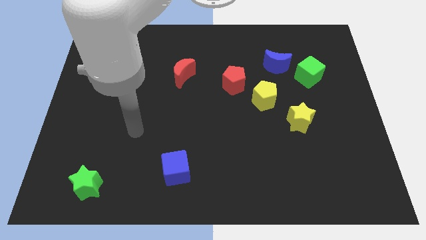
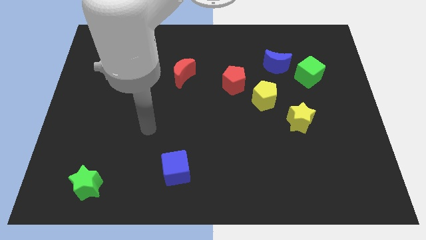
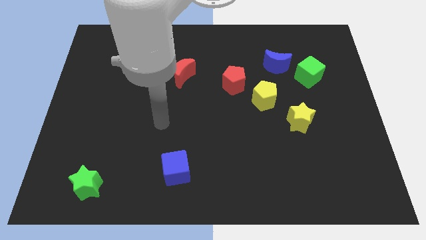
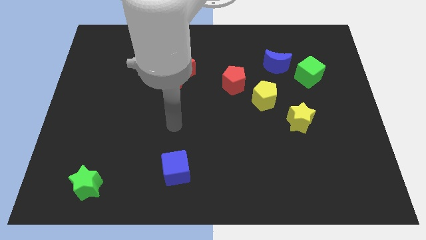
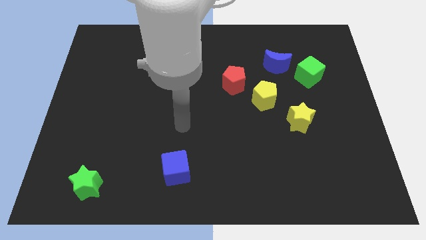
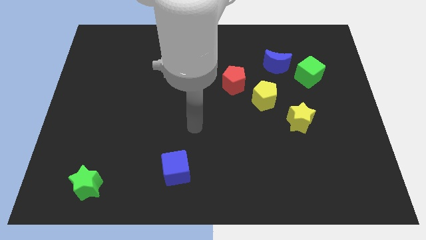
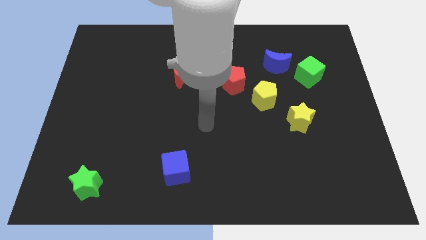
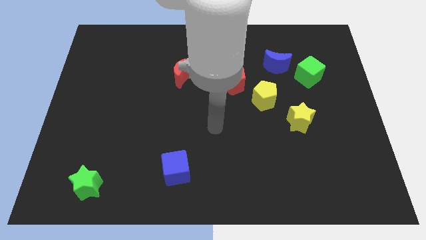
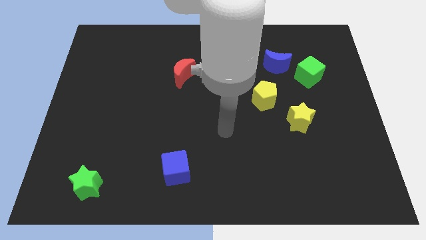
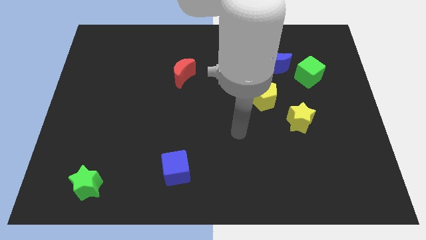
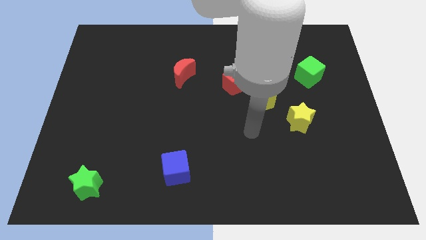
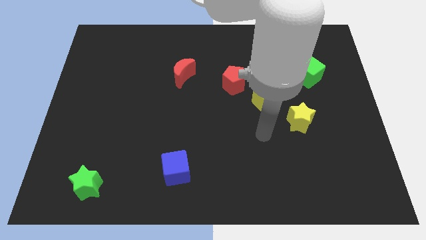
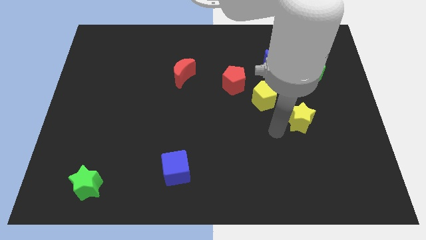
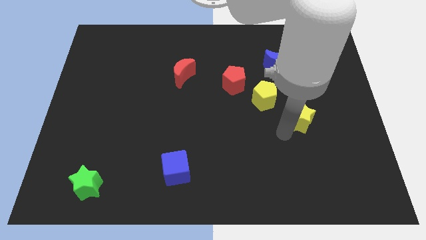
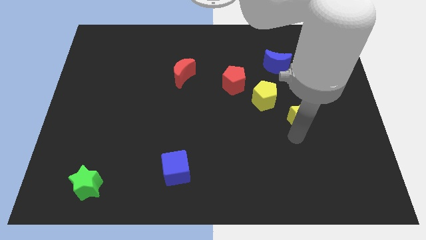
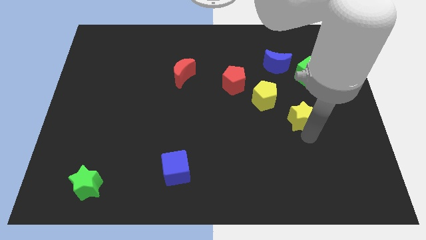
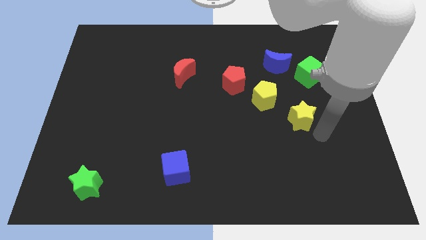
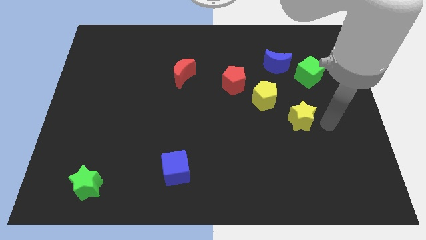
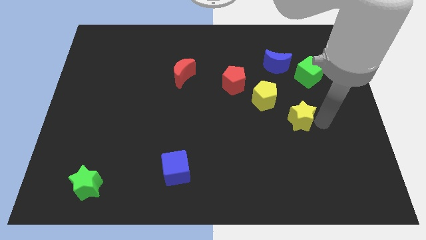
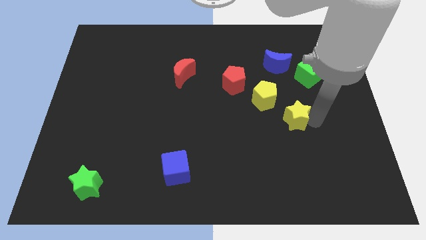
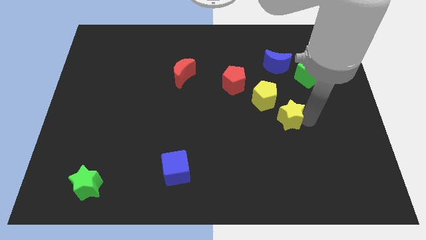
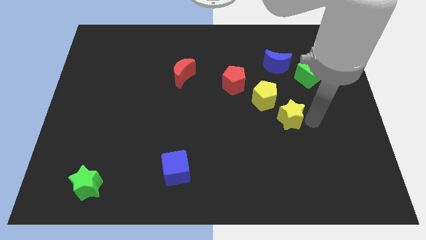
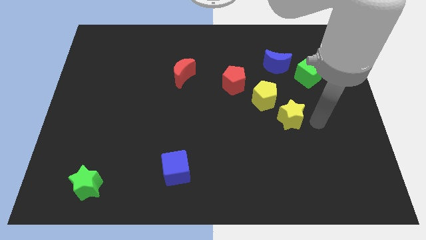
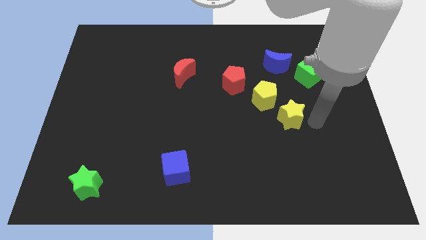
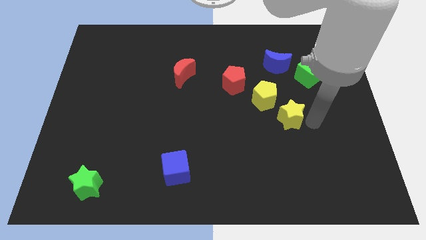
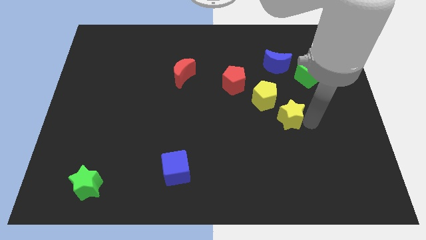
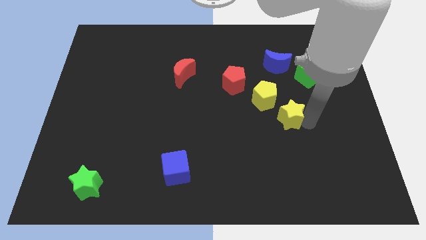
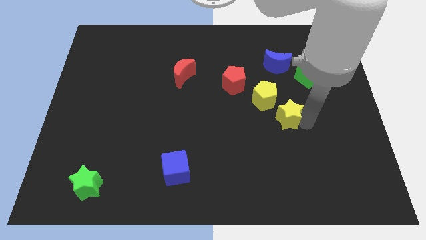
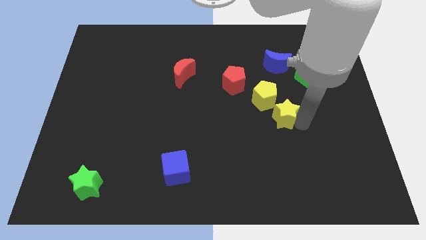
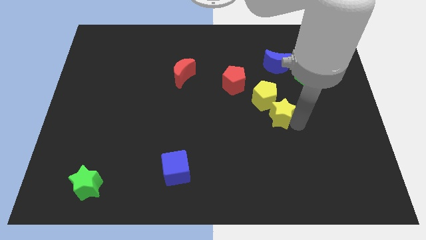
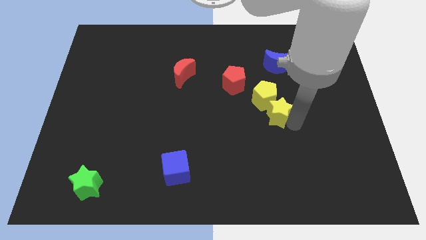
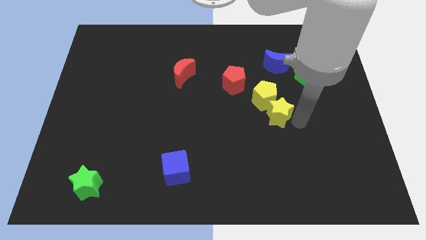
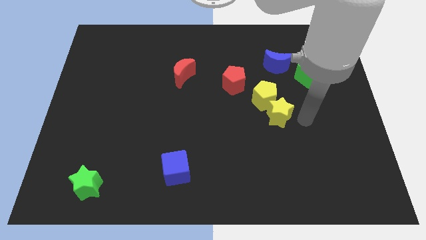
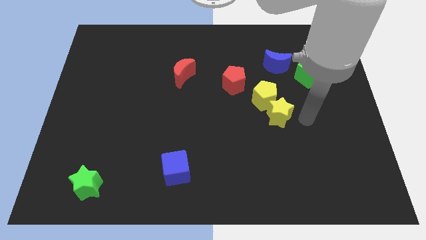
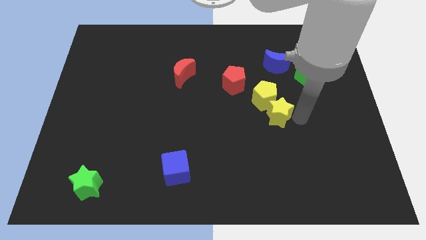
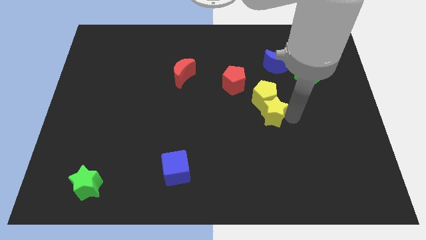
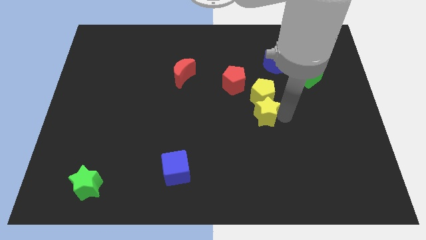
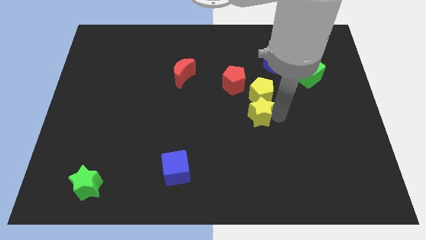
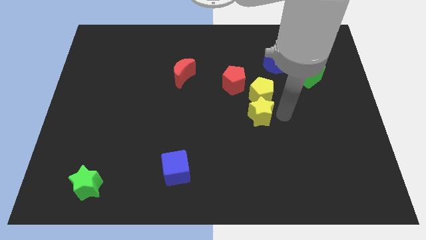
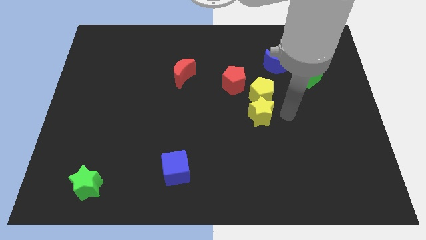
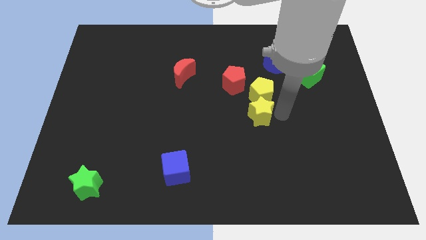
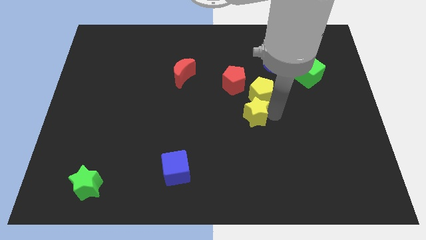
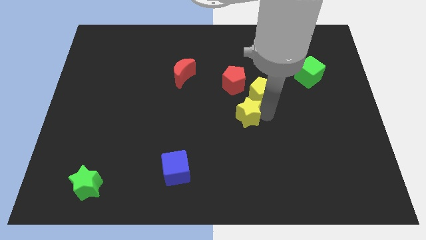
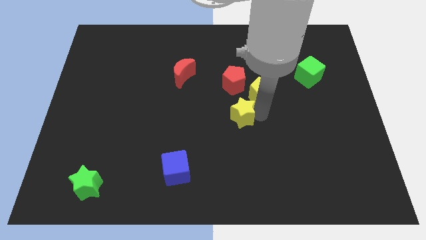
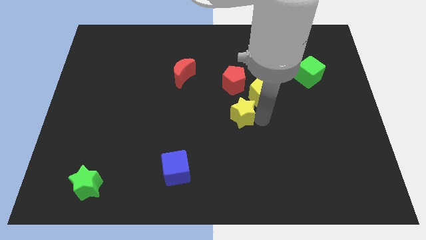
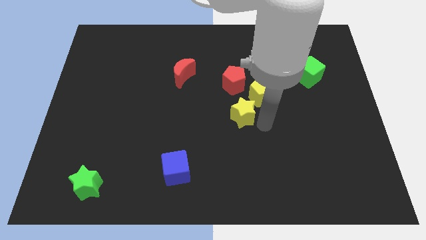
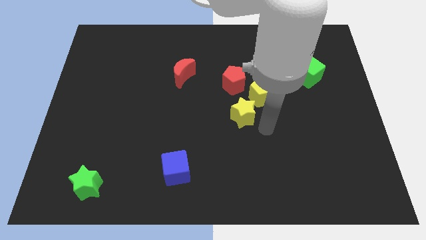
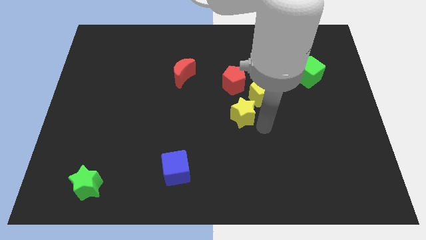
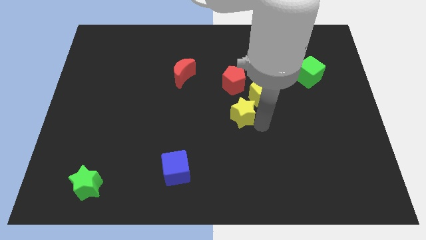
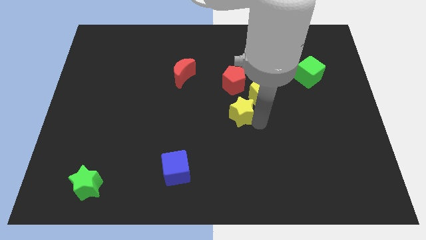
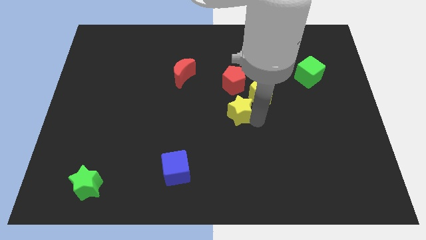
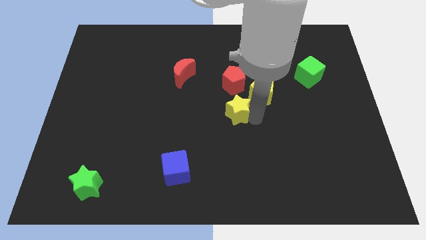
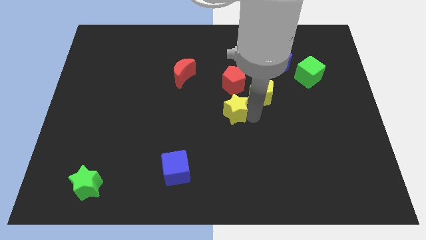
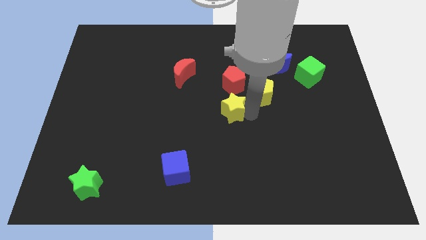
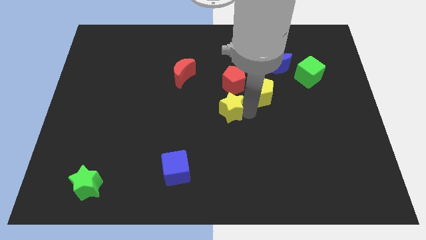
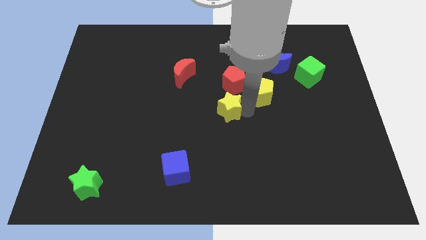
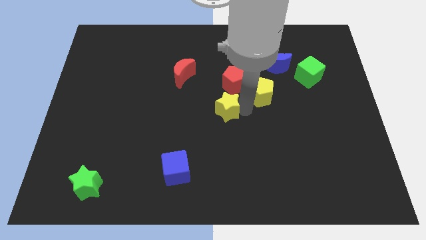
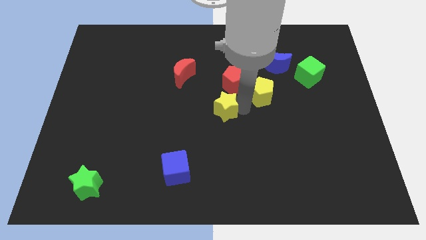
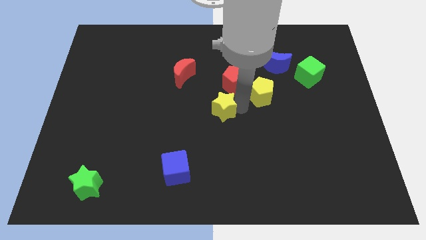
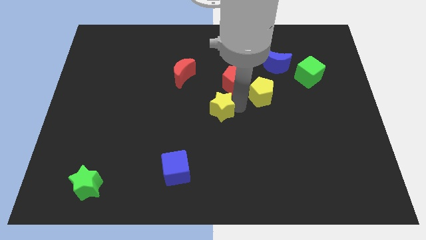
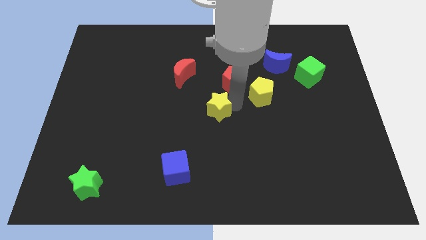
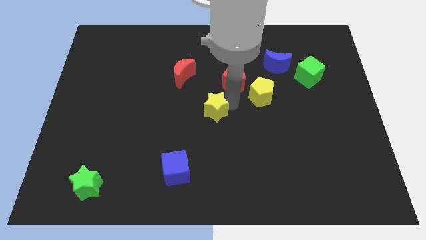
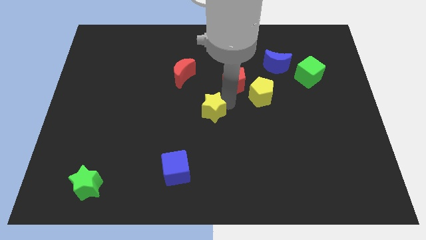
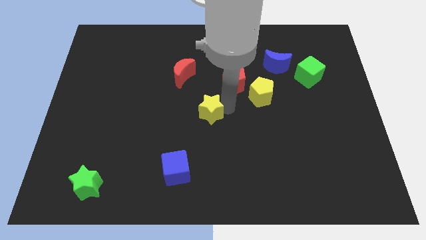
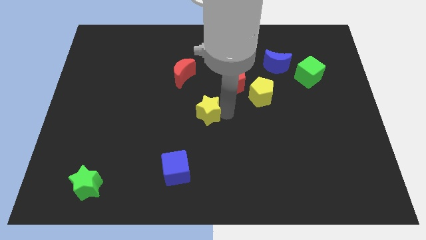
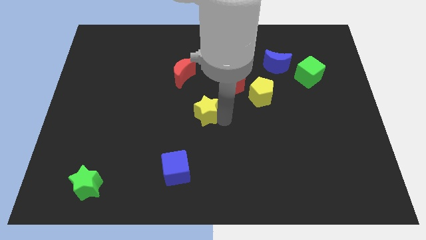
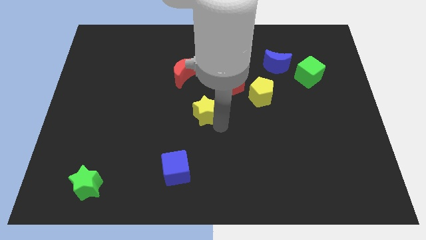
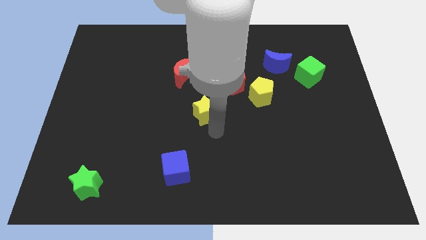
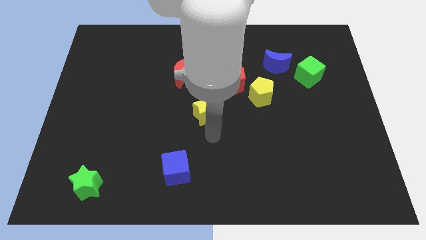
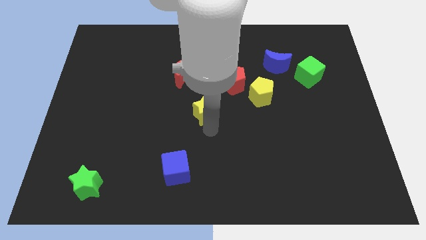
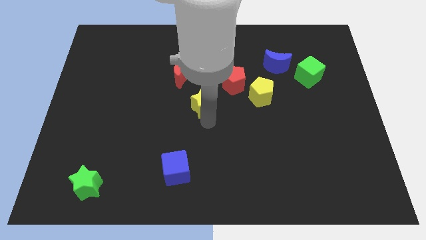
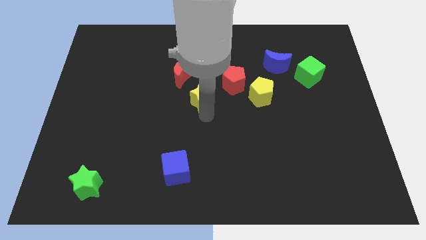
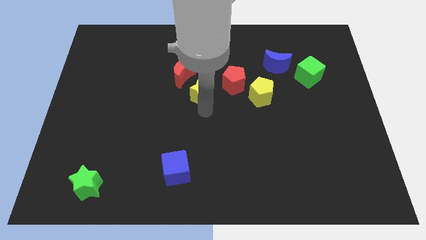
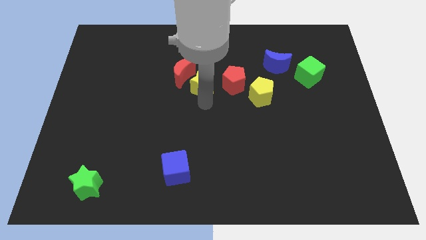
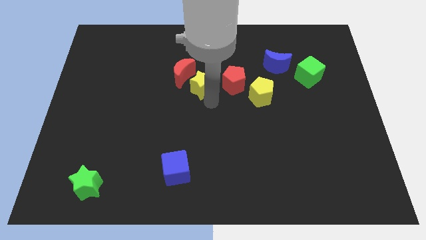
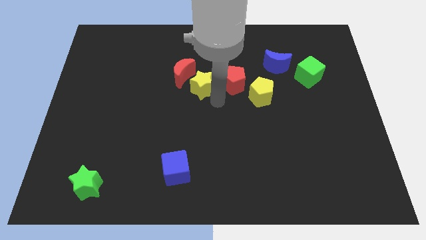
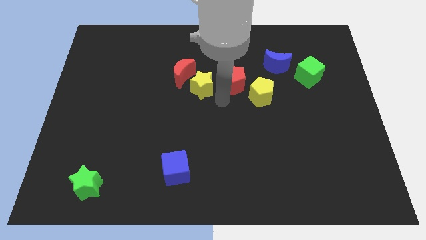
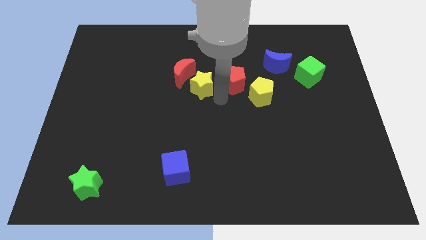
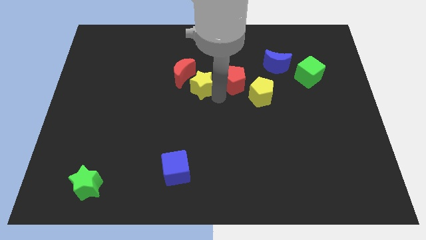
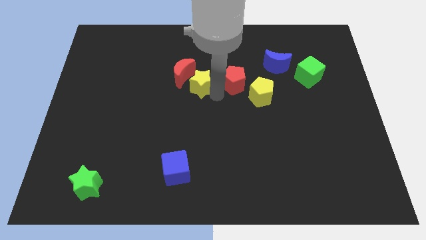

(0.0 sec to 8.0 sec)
put the yellow star close to the red moon
